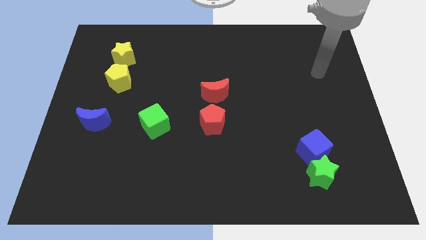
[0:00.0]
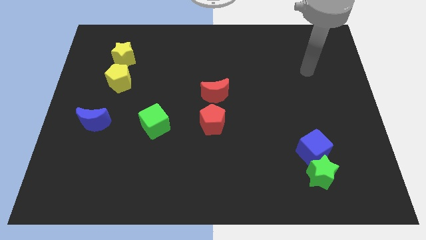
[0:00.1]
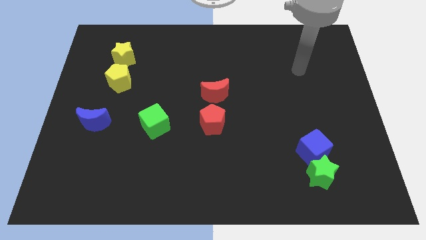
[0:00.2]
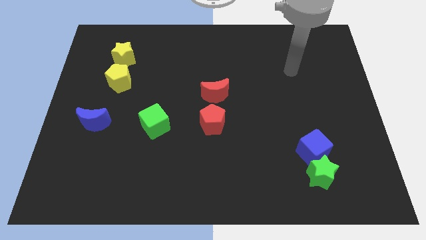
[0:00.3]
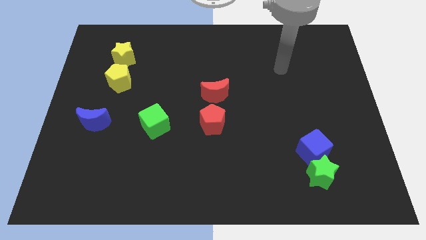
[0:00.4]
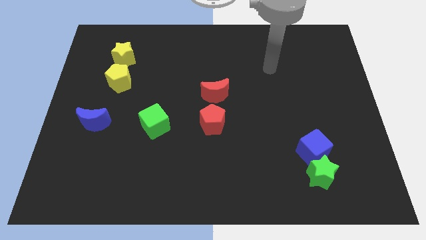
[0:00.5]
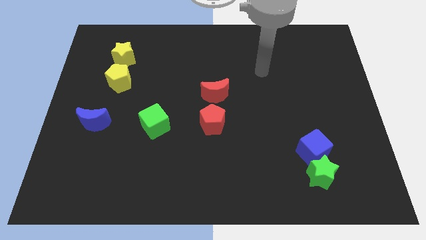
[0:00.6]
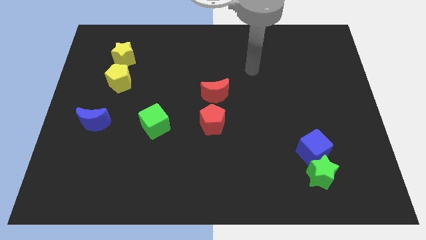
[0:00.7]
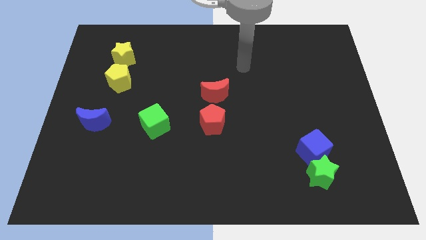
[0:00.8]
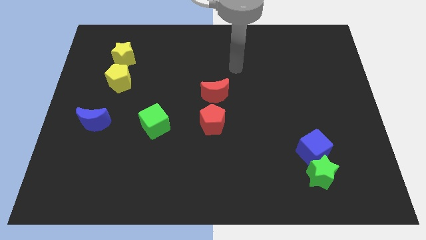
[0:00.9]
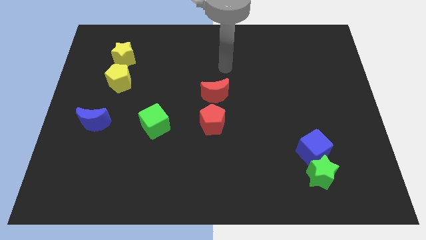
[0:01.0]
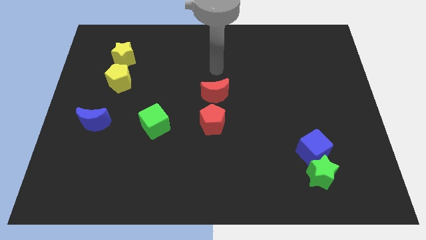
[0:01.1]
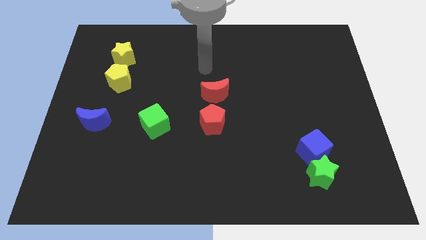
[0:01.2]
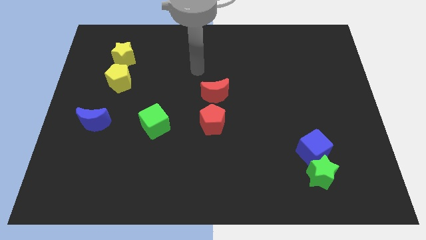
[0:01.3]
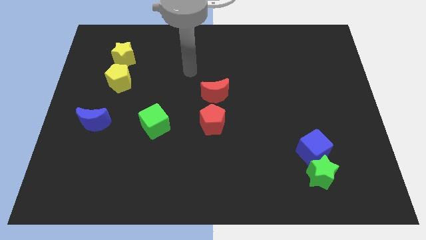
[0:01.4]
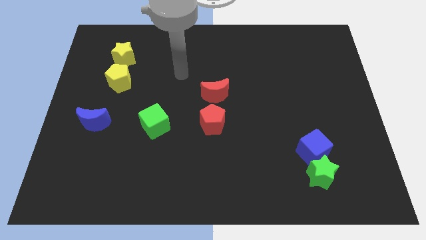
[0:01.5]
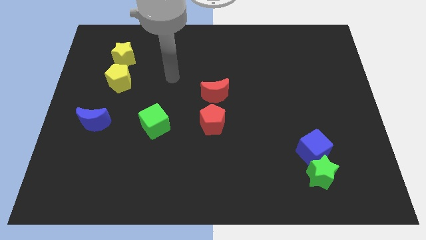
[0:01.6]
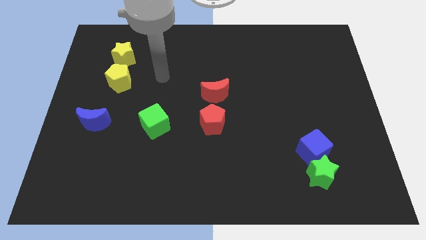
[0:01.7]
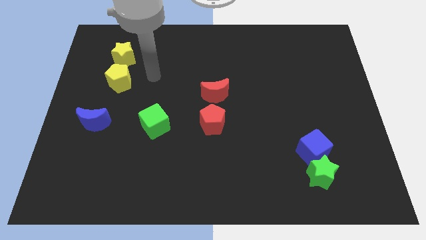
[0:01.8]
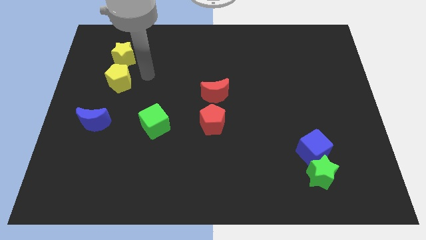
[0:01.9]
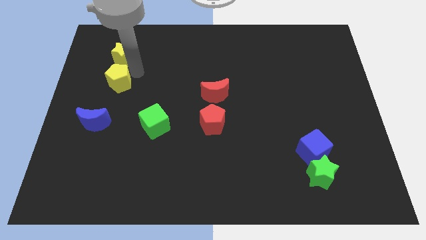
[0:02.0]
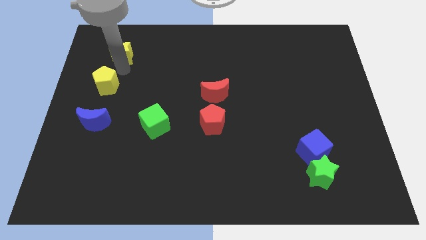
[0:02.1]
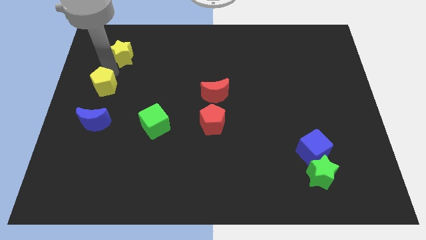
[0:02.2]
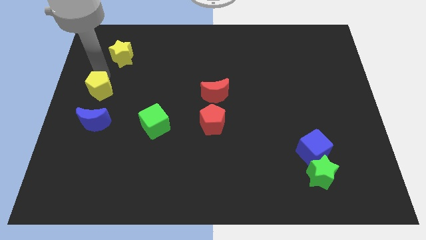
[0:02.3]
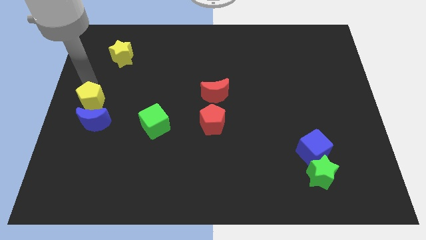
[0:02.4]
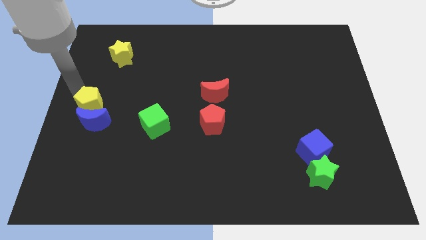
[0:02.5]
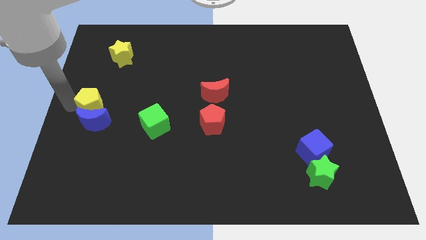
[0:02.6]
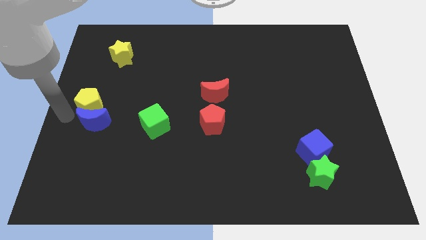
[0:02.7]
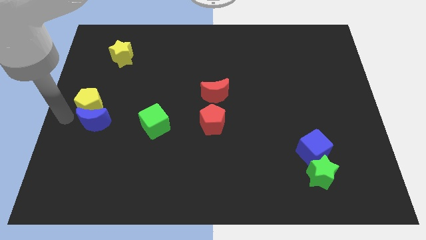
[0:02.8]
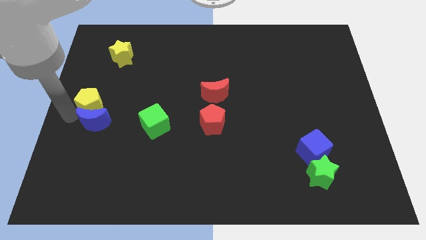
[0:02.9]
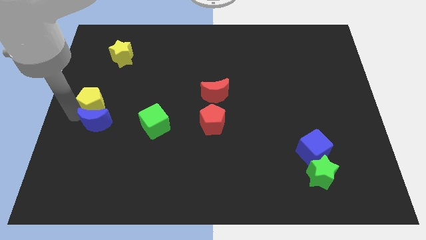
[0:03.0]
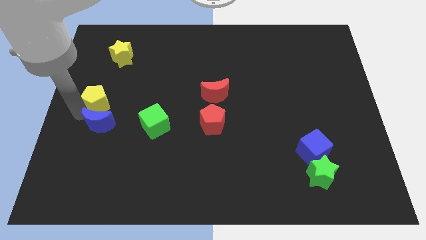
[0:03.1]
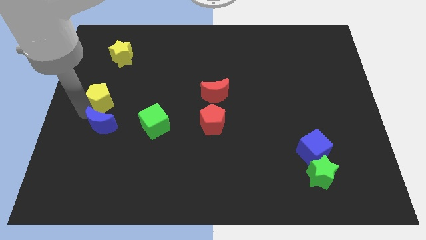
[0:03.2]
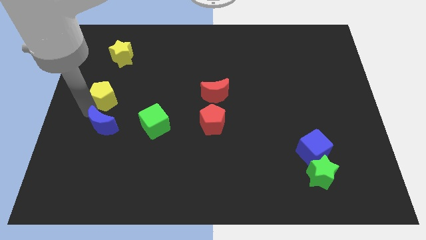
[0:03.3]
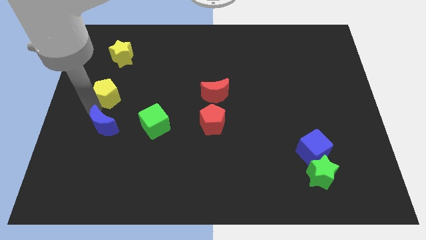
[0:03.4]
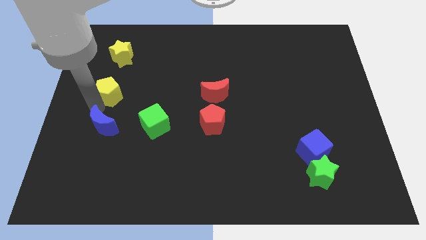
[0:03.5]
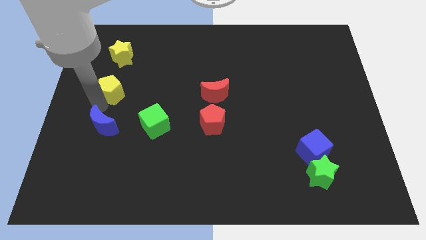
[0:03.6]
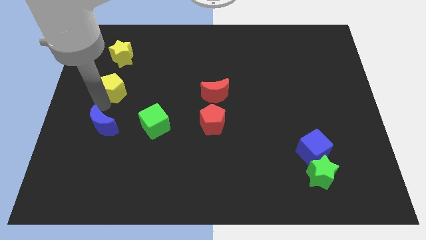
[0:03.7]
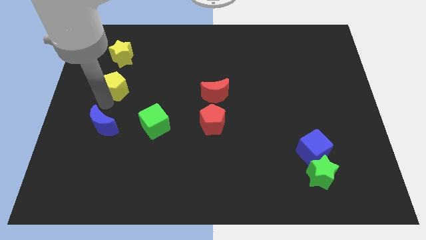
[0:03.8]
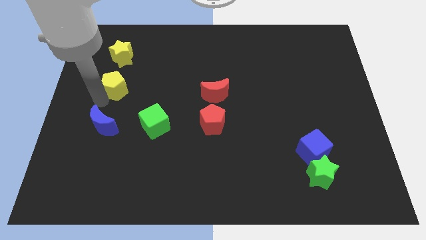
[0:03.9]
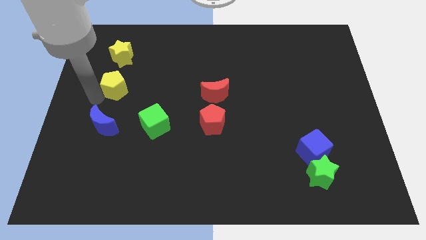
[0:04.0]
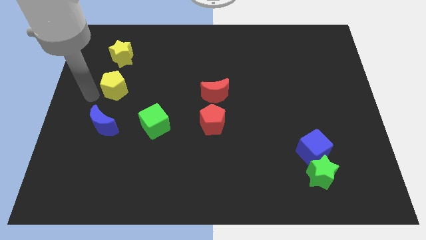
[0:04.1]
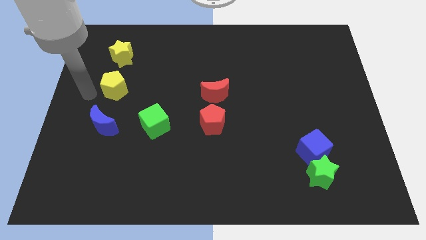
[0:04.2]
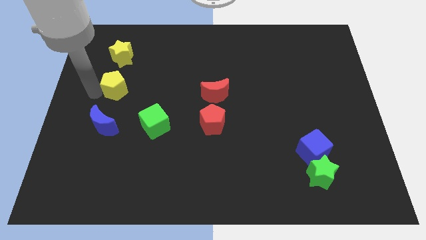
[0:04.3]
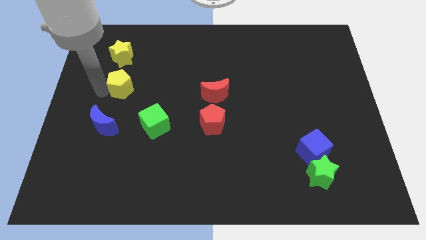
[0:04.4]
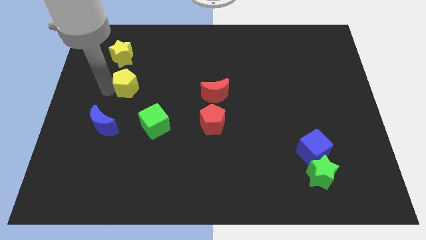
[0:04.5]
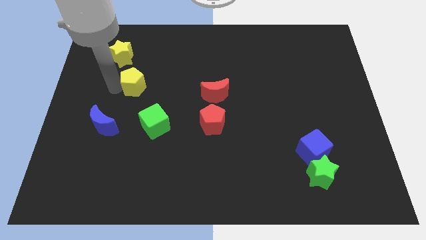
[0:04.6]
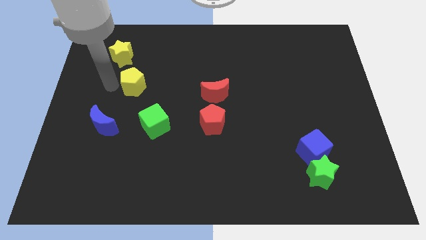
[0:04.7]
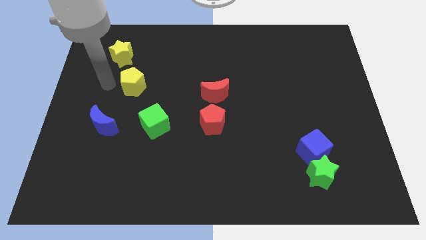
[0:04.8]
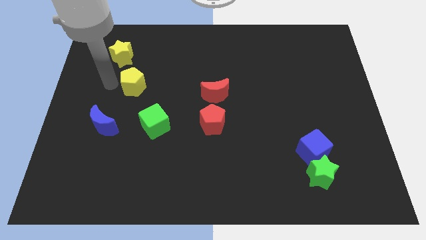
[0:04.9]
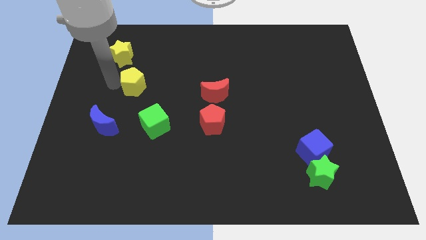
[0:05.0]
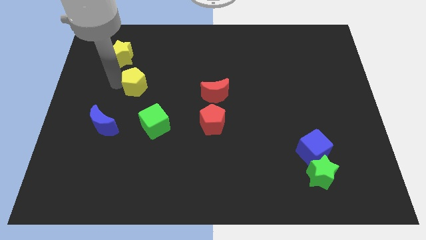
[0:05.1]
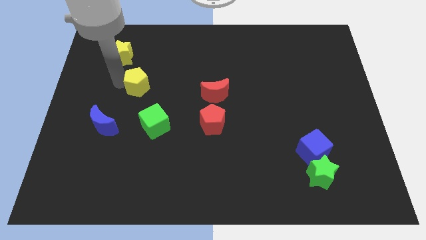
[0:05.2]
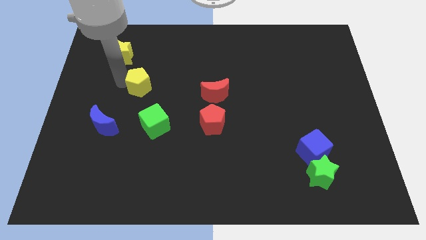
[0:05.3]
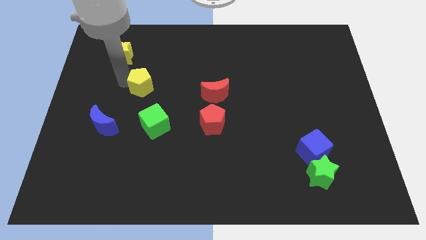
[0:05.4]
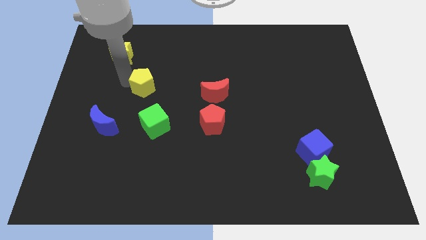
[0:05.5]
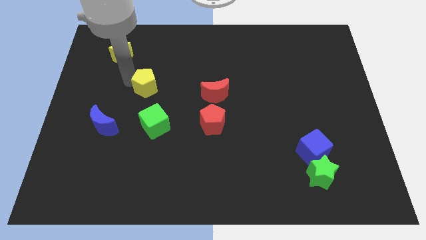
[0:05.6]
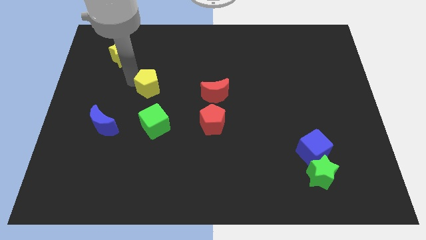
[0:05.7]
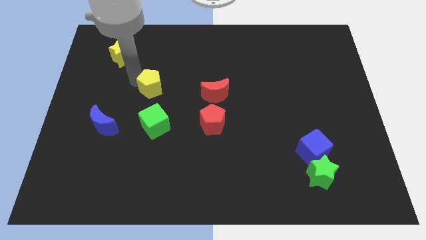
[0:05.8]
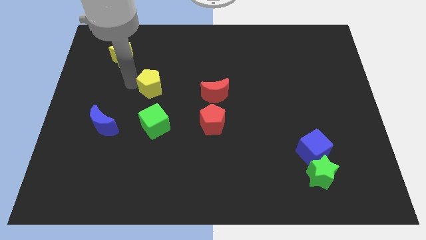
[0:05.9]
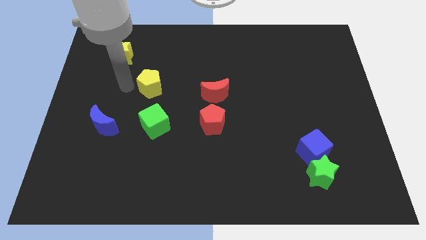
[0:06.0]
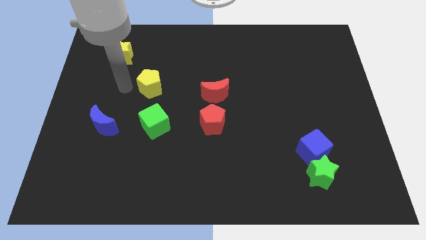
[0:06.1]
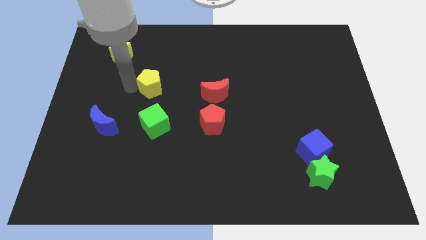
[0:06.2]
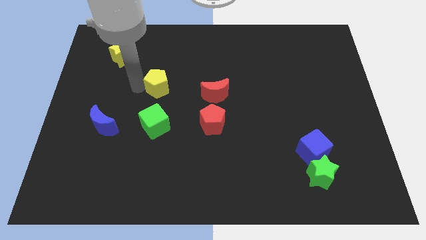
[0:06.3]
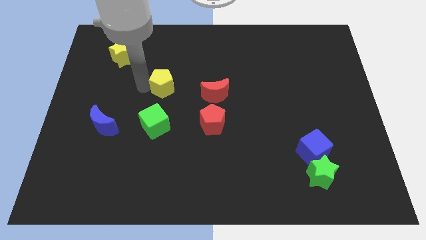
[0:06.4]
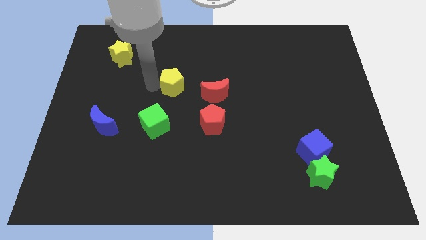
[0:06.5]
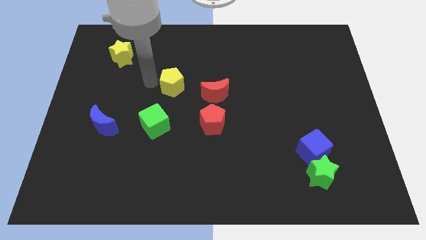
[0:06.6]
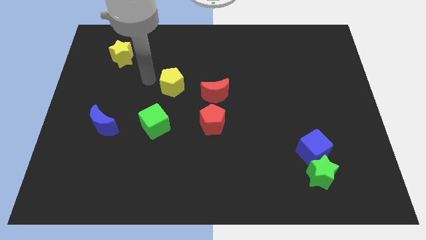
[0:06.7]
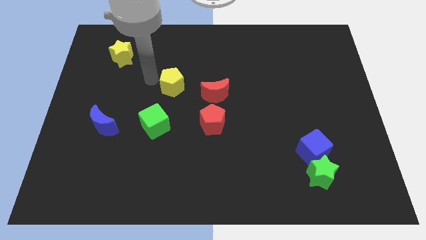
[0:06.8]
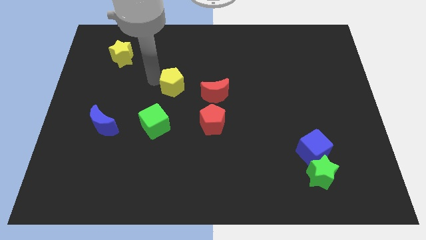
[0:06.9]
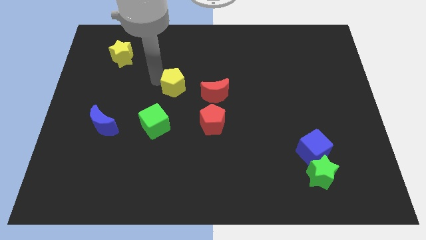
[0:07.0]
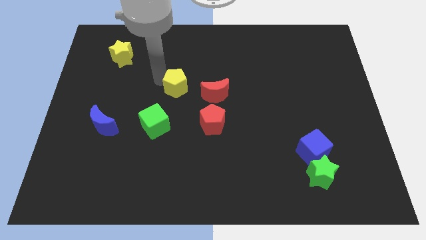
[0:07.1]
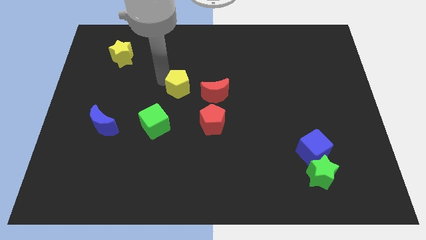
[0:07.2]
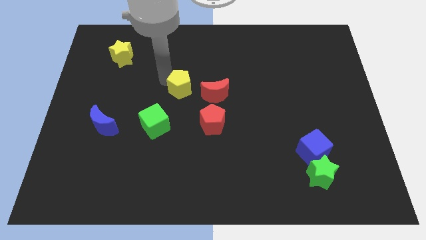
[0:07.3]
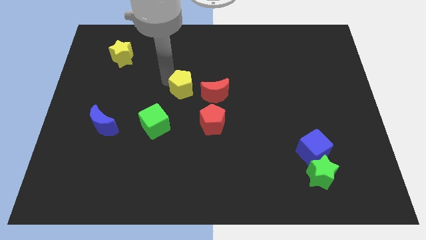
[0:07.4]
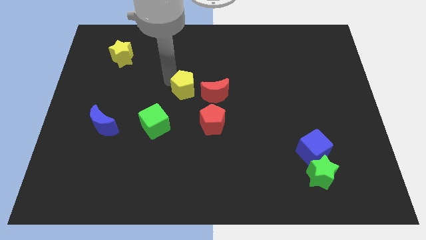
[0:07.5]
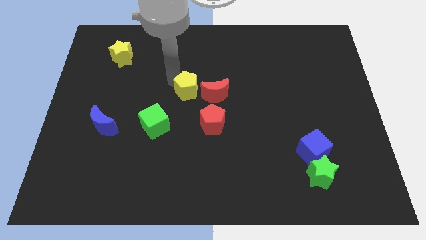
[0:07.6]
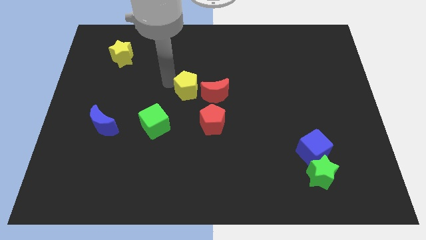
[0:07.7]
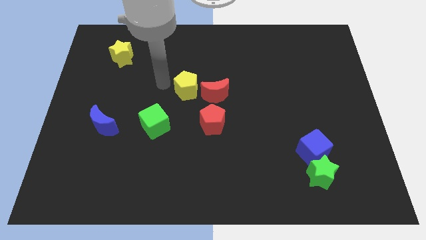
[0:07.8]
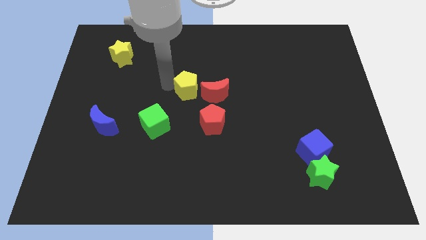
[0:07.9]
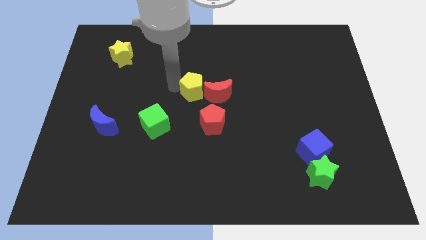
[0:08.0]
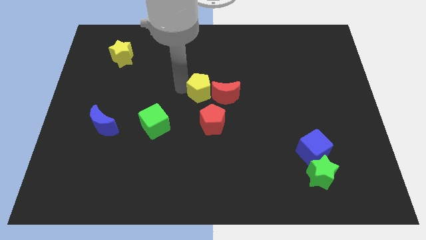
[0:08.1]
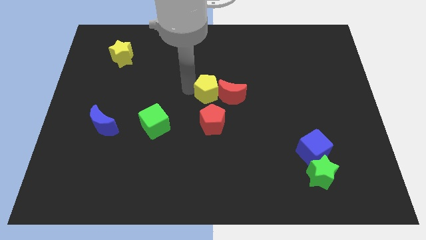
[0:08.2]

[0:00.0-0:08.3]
push the yellow pentagon to the red moon
